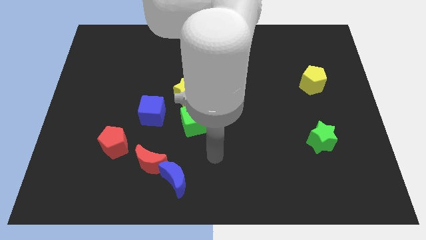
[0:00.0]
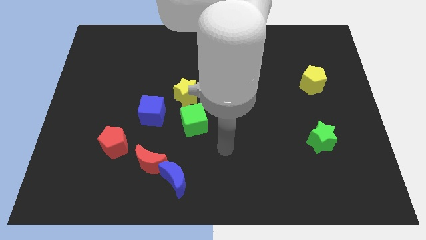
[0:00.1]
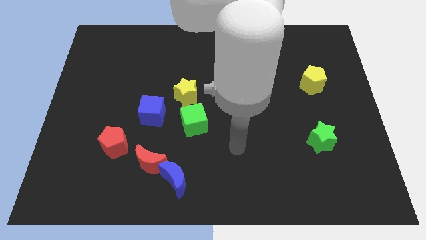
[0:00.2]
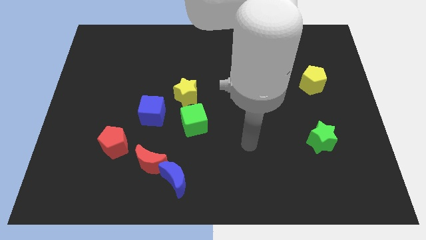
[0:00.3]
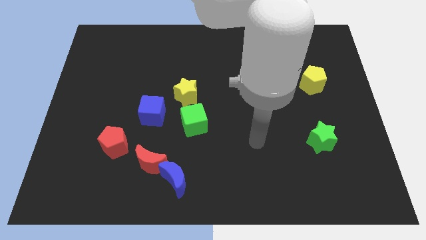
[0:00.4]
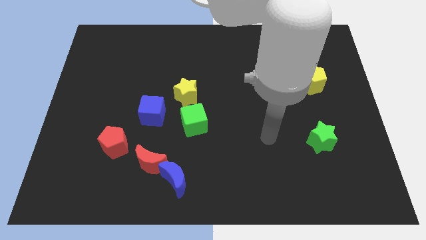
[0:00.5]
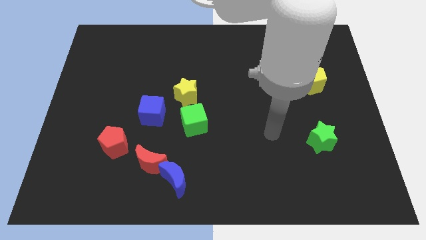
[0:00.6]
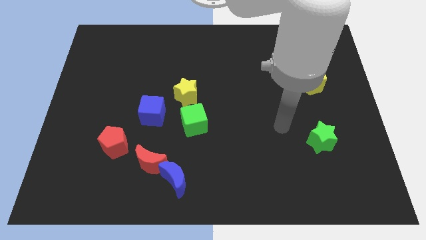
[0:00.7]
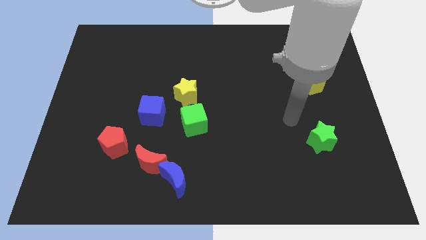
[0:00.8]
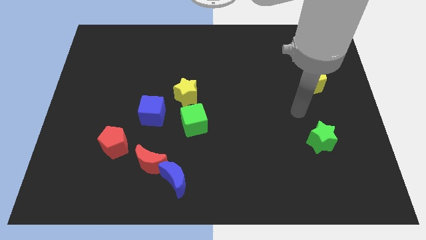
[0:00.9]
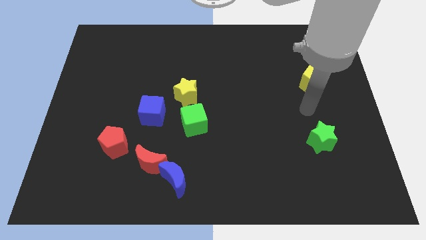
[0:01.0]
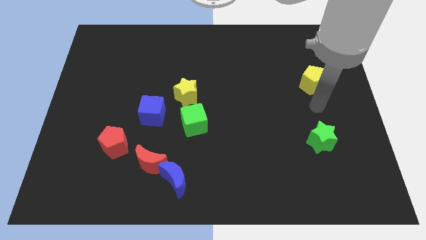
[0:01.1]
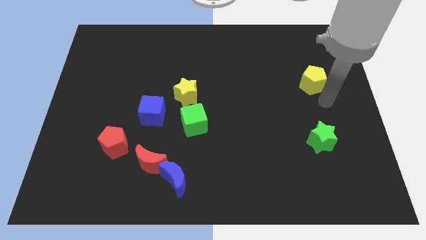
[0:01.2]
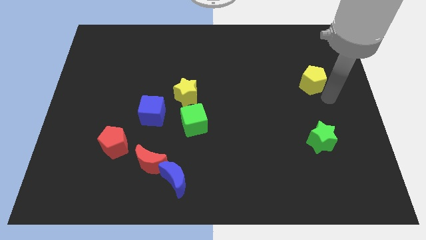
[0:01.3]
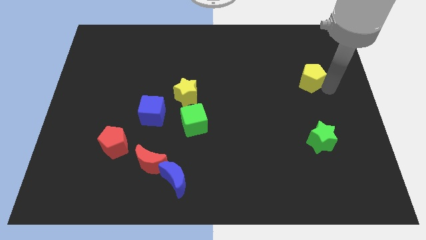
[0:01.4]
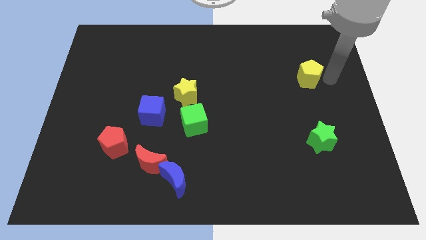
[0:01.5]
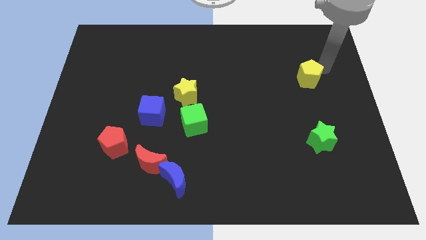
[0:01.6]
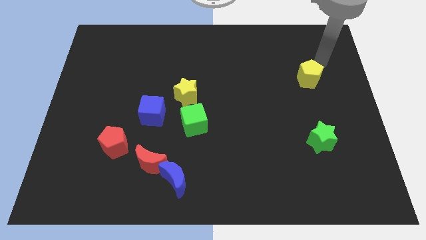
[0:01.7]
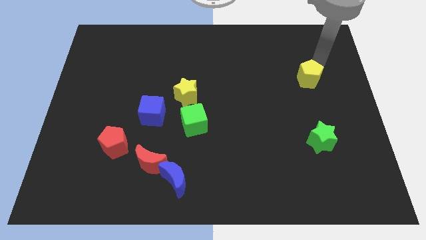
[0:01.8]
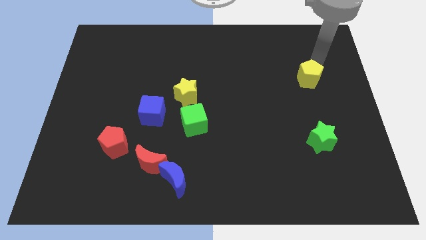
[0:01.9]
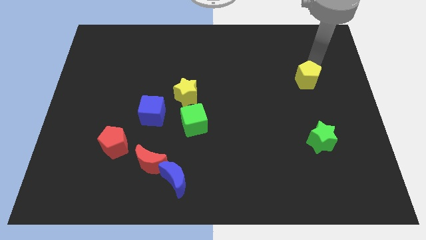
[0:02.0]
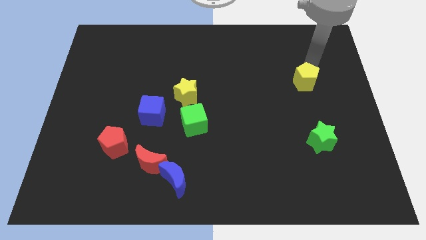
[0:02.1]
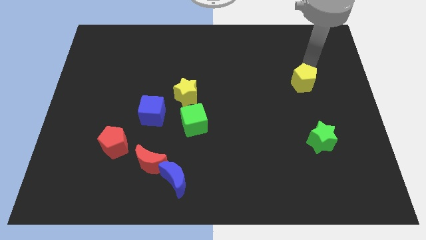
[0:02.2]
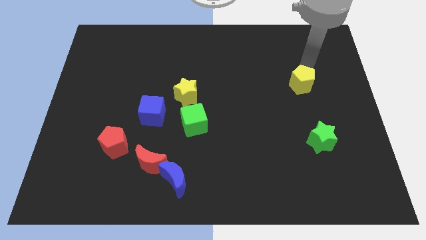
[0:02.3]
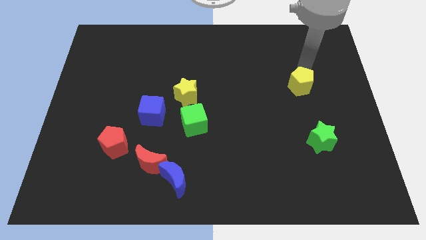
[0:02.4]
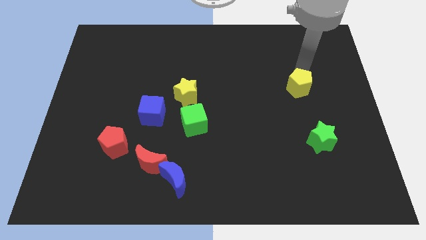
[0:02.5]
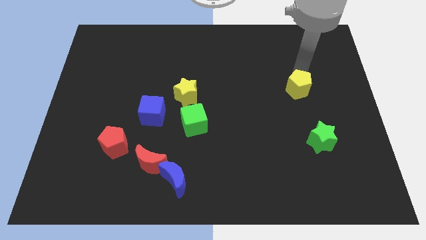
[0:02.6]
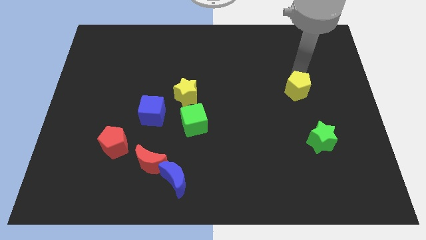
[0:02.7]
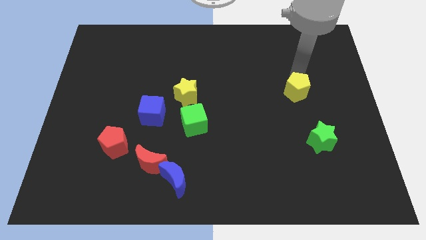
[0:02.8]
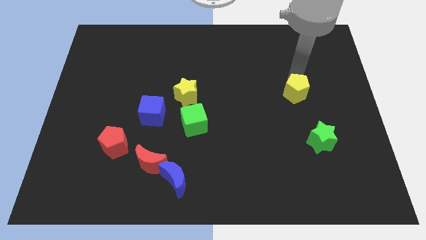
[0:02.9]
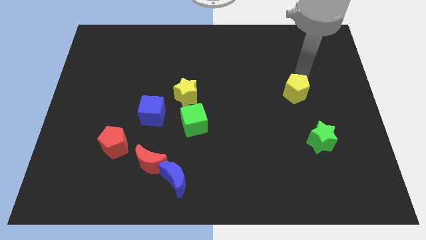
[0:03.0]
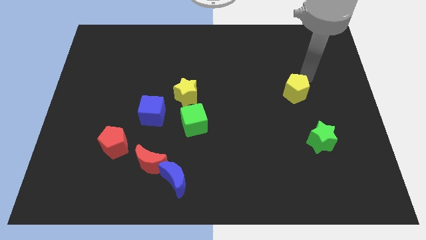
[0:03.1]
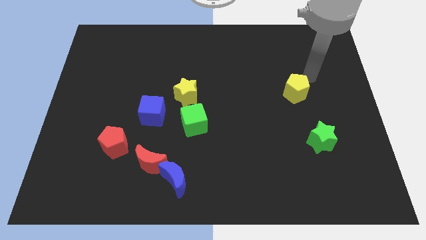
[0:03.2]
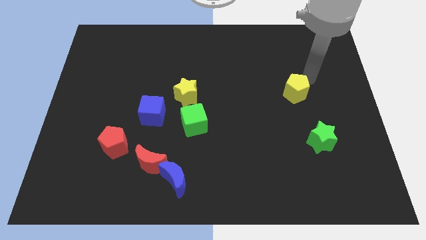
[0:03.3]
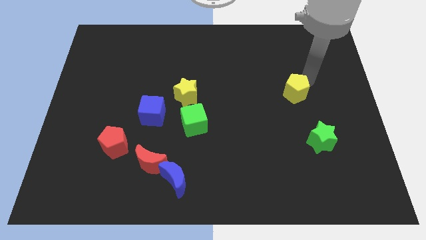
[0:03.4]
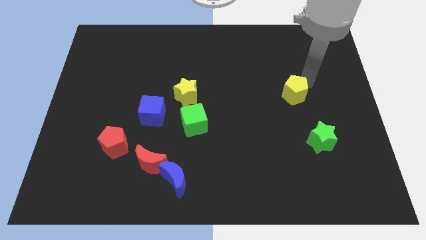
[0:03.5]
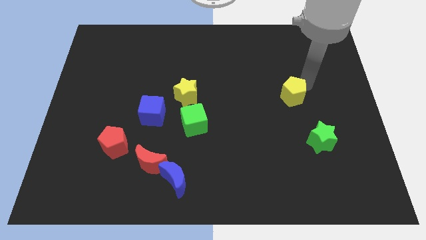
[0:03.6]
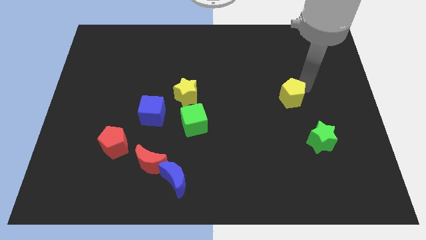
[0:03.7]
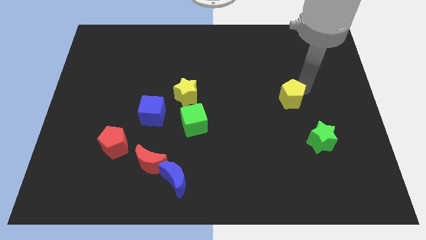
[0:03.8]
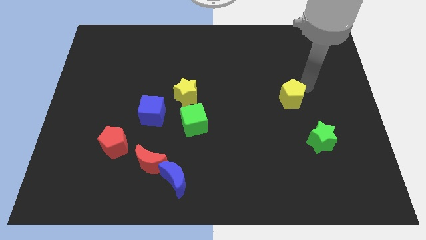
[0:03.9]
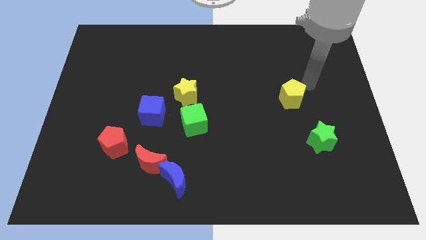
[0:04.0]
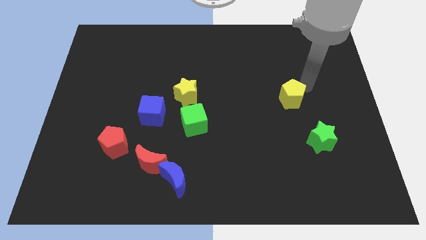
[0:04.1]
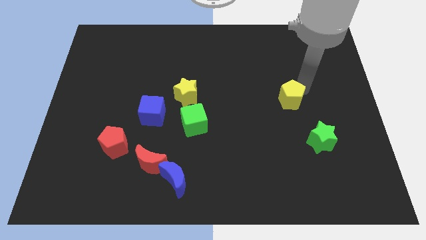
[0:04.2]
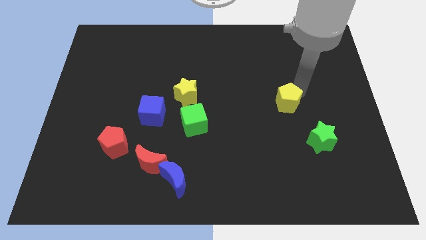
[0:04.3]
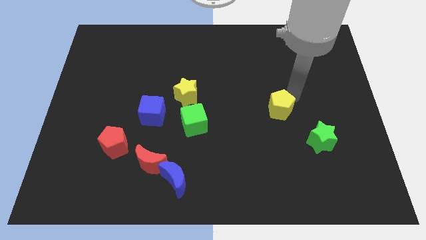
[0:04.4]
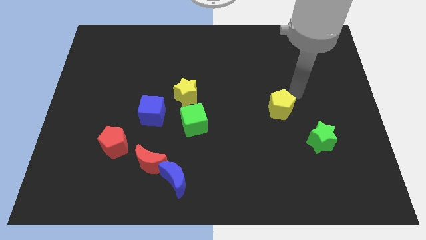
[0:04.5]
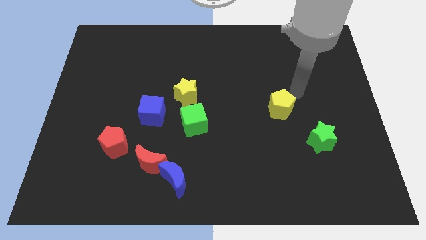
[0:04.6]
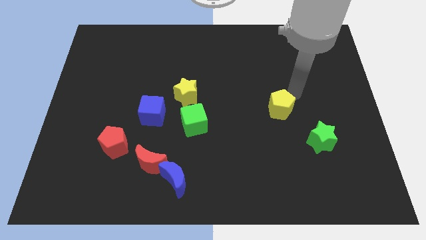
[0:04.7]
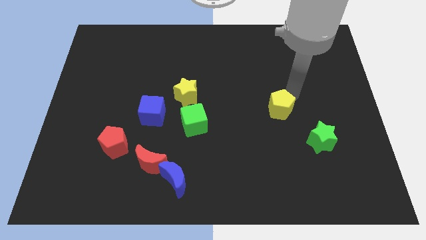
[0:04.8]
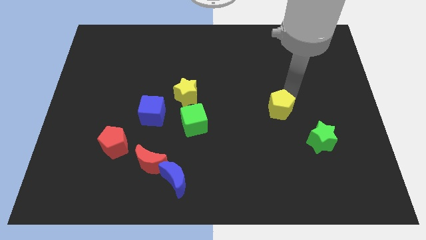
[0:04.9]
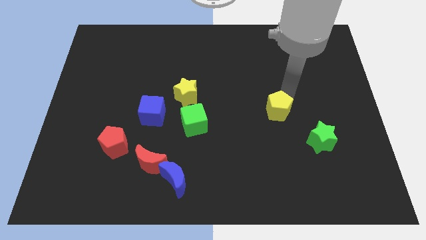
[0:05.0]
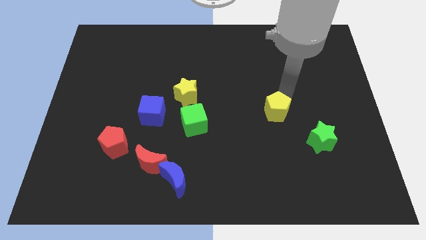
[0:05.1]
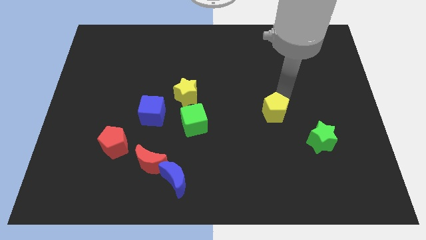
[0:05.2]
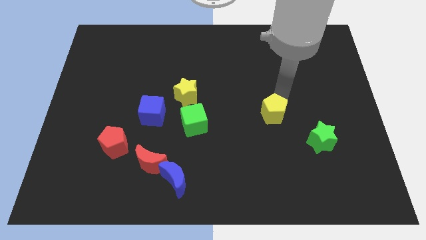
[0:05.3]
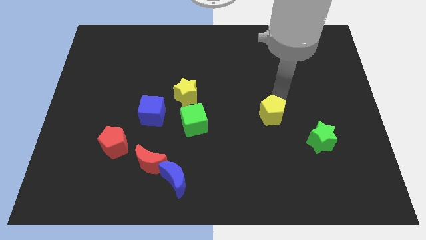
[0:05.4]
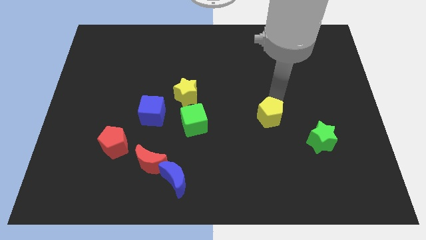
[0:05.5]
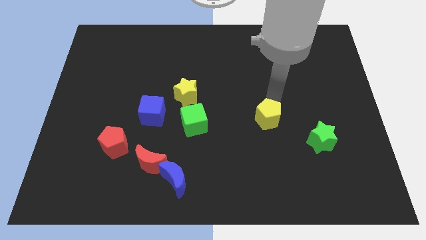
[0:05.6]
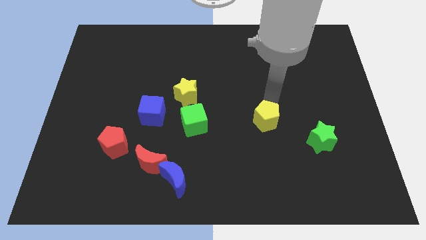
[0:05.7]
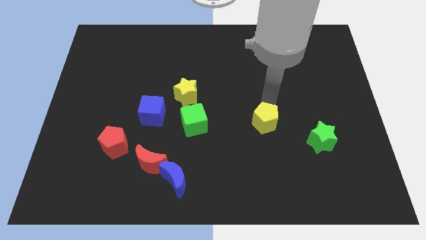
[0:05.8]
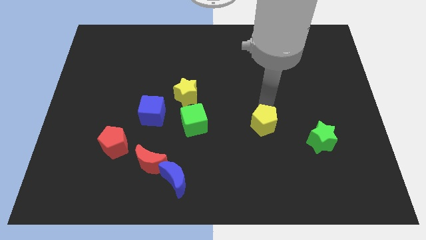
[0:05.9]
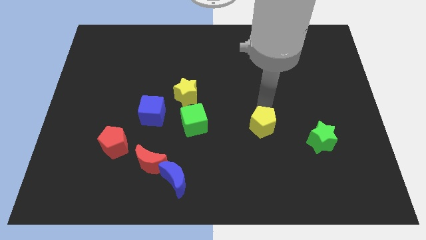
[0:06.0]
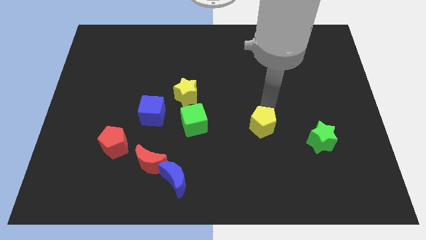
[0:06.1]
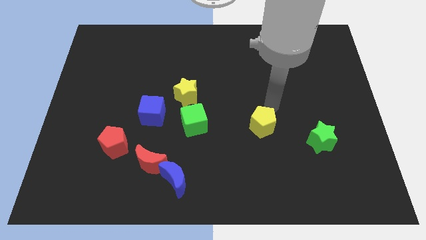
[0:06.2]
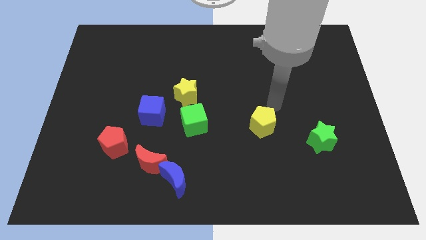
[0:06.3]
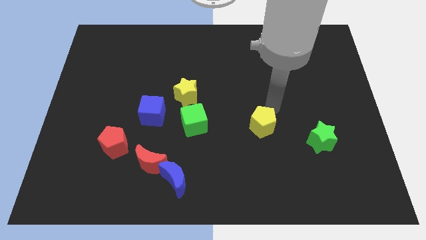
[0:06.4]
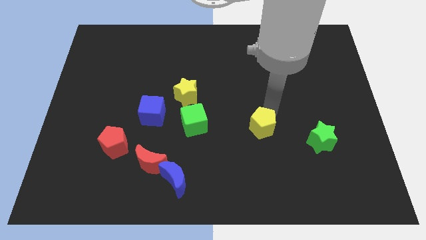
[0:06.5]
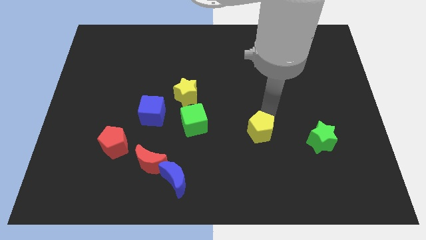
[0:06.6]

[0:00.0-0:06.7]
move the yellow pentagon downwards and to the left

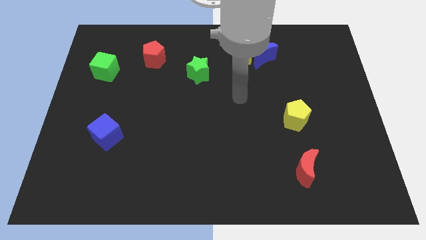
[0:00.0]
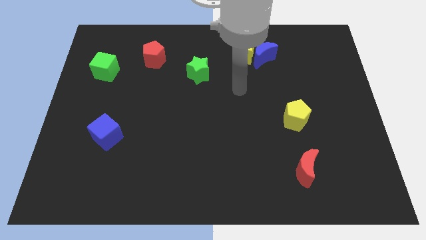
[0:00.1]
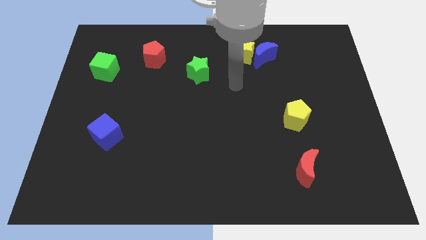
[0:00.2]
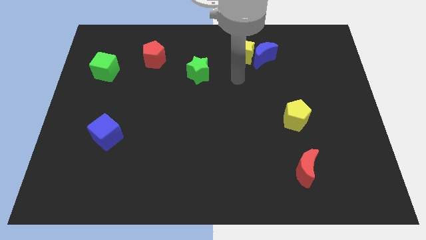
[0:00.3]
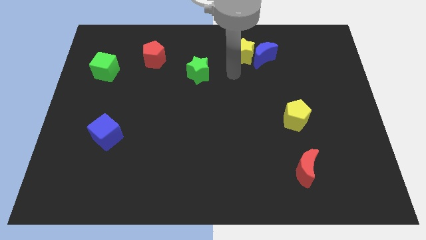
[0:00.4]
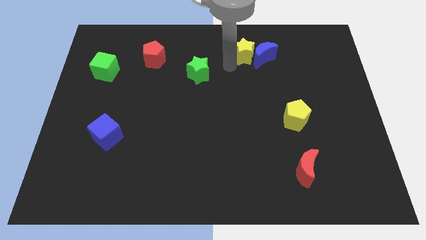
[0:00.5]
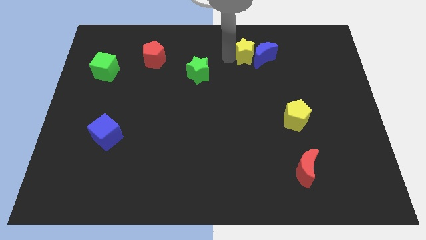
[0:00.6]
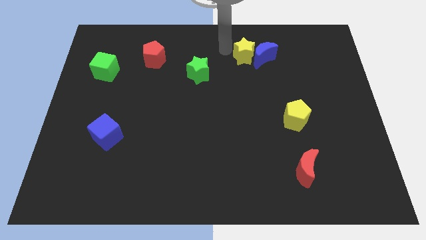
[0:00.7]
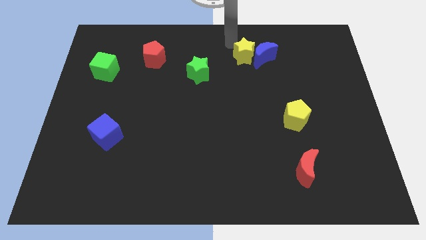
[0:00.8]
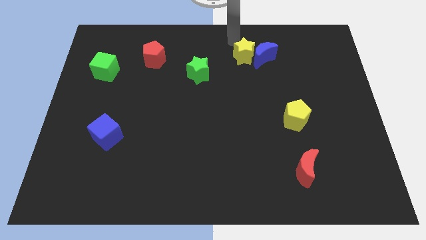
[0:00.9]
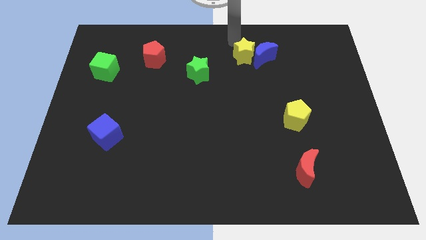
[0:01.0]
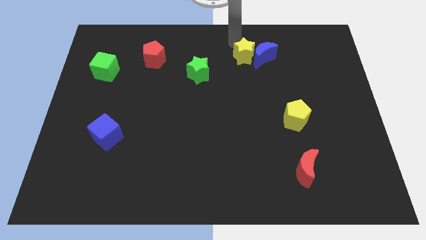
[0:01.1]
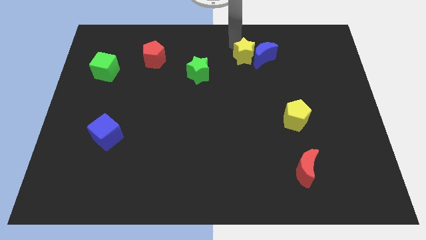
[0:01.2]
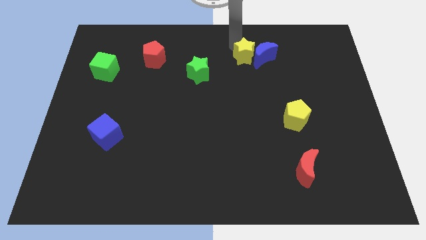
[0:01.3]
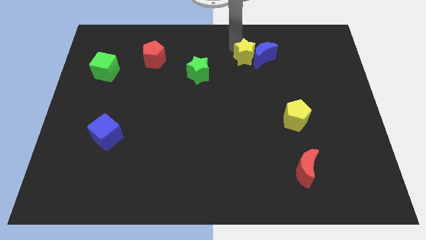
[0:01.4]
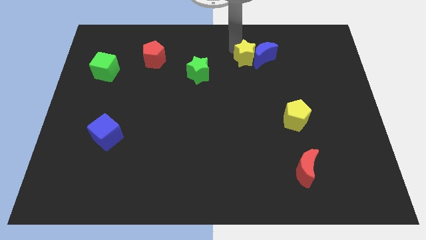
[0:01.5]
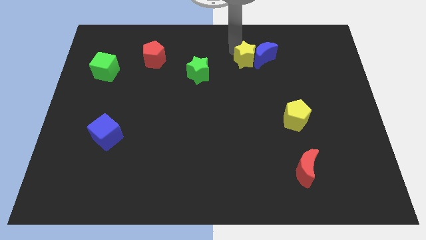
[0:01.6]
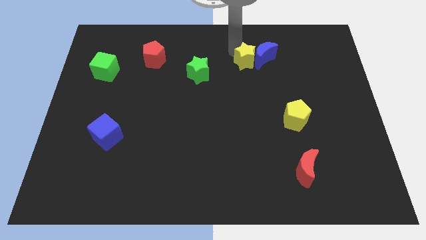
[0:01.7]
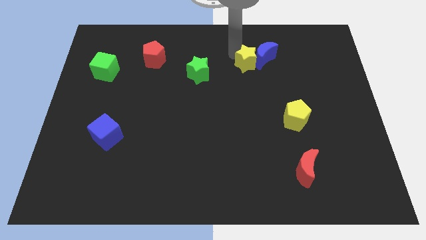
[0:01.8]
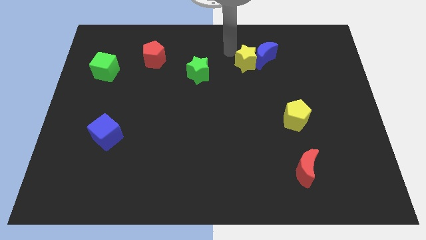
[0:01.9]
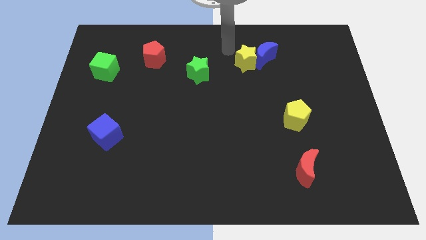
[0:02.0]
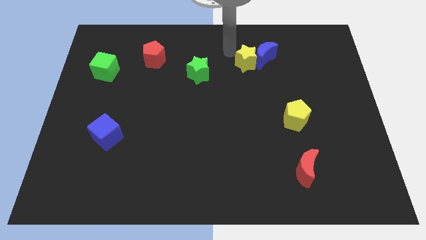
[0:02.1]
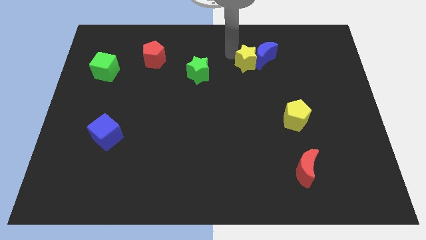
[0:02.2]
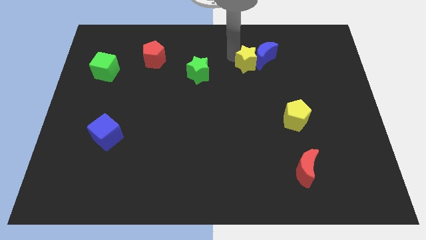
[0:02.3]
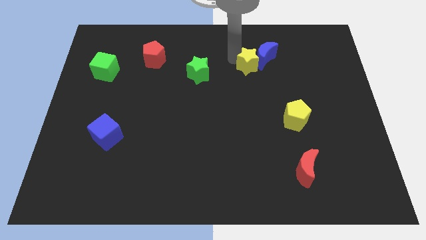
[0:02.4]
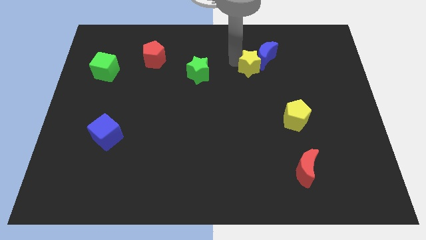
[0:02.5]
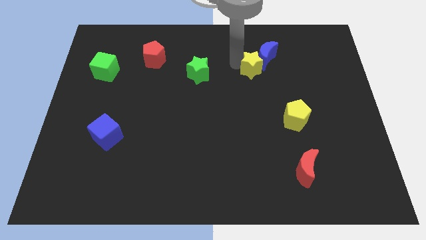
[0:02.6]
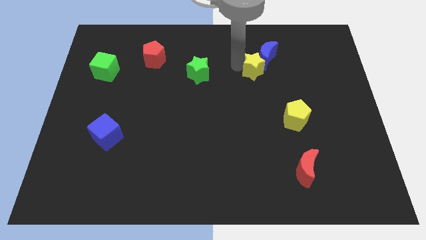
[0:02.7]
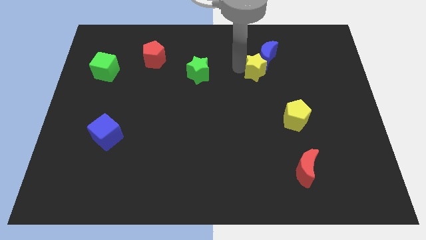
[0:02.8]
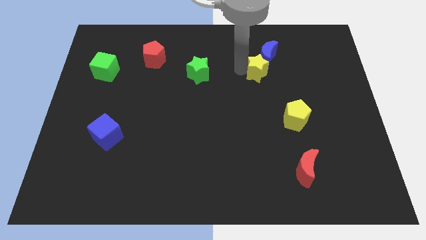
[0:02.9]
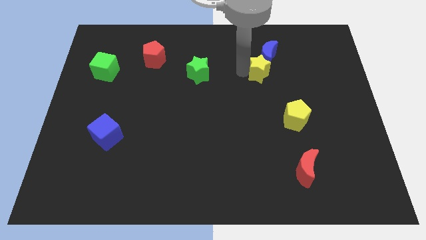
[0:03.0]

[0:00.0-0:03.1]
move the yellow star somewhat downwards and to the right diagonally
